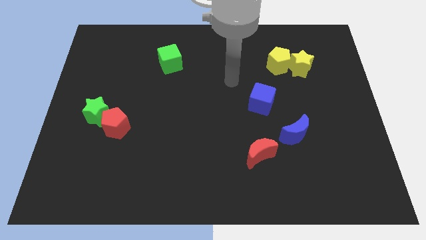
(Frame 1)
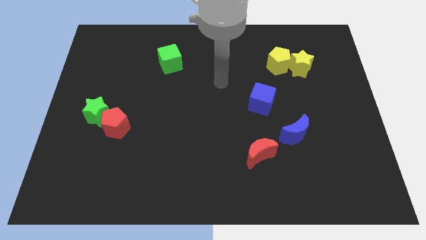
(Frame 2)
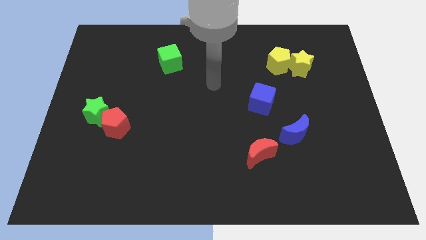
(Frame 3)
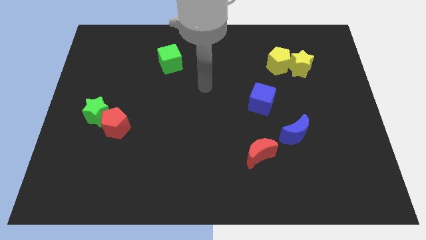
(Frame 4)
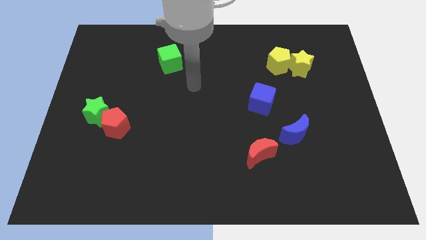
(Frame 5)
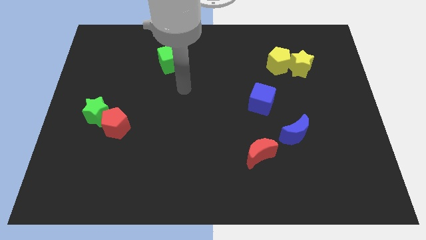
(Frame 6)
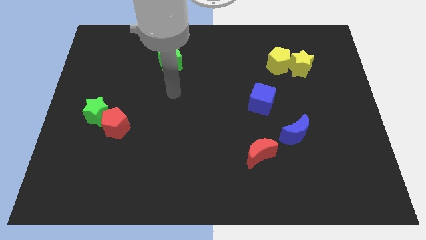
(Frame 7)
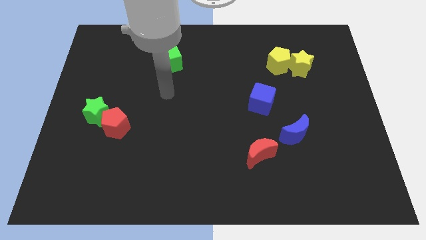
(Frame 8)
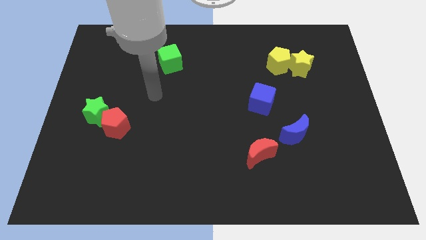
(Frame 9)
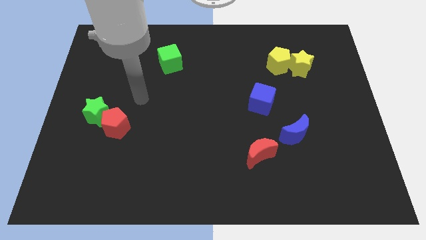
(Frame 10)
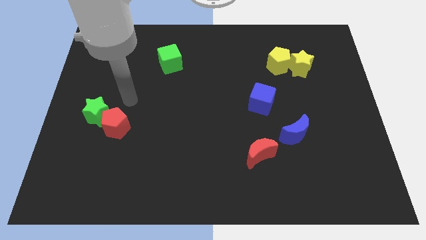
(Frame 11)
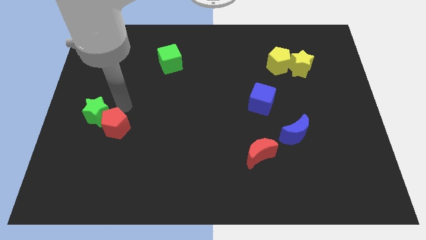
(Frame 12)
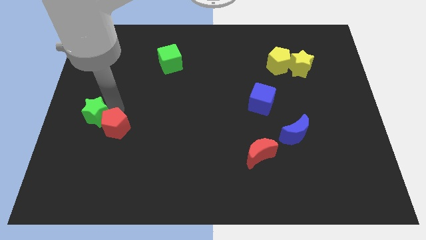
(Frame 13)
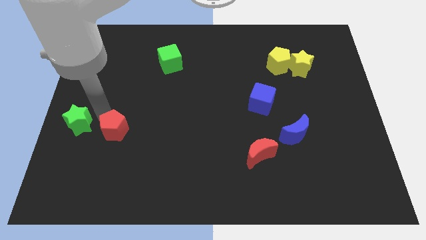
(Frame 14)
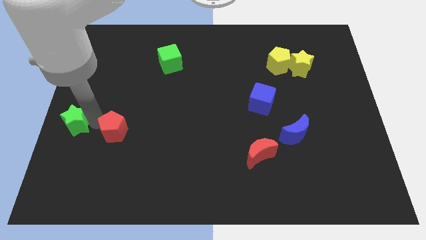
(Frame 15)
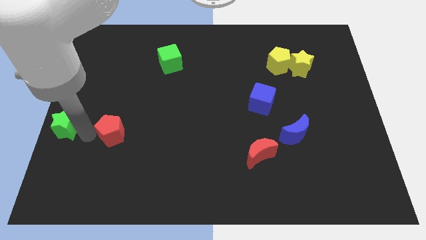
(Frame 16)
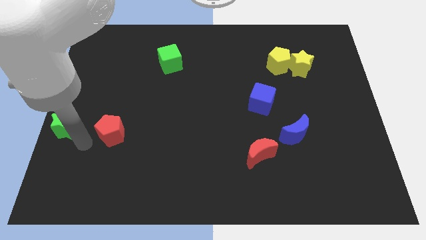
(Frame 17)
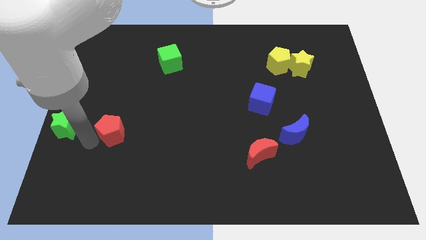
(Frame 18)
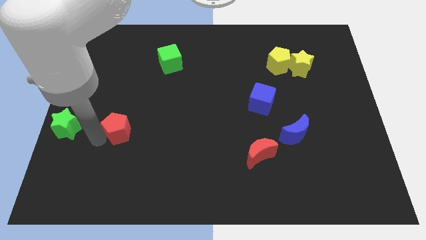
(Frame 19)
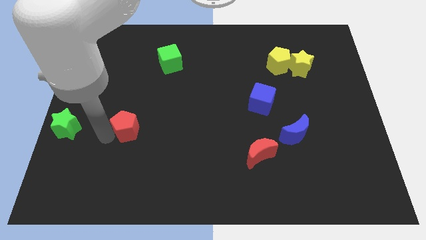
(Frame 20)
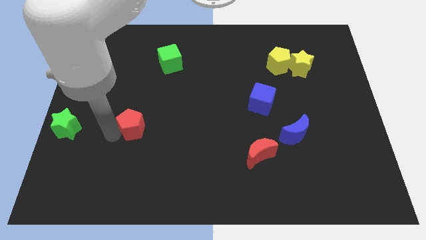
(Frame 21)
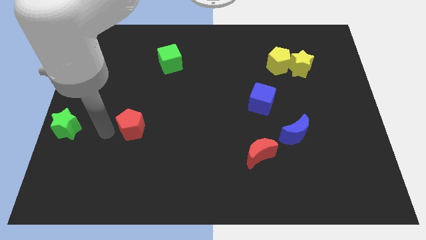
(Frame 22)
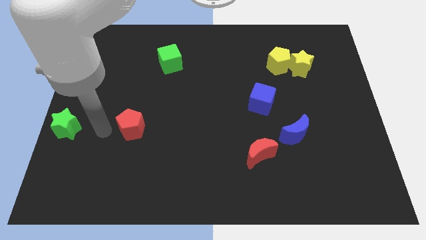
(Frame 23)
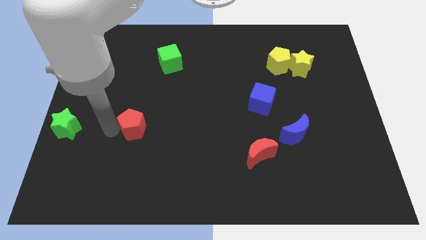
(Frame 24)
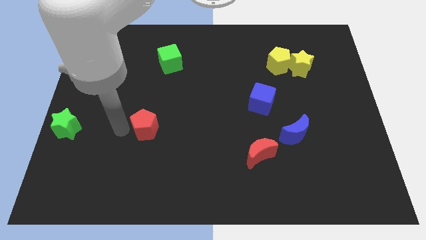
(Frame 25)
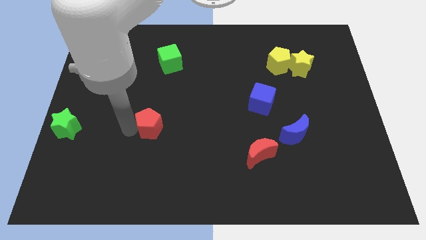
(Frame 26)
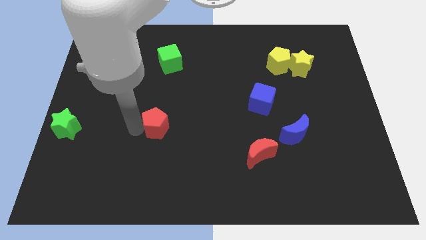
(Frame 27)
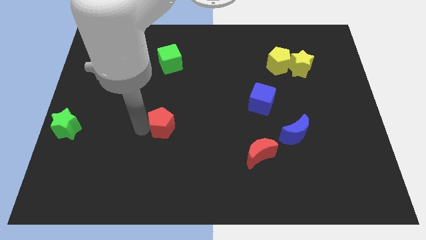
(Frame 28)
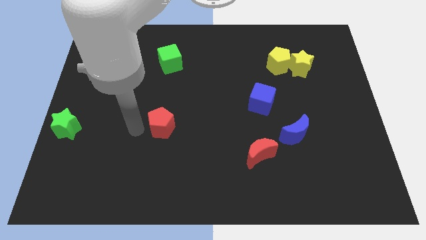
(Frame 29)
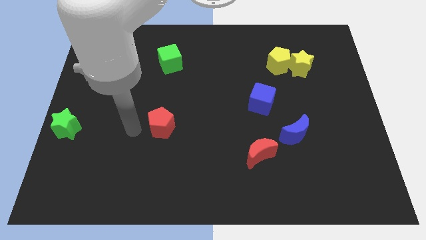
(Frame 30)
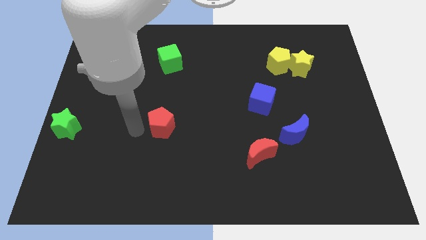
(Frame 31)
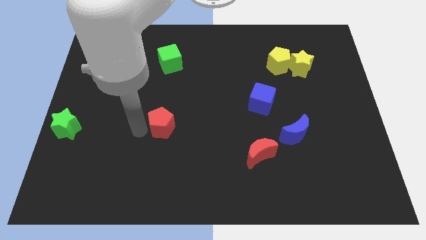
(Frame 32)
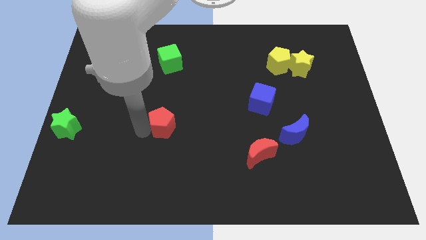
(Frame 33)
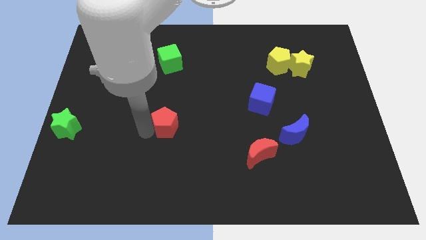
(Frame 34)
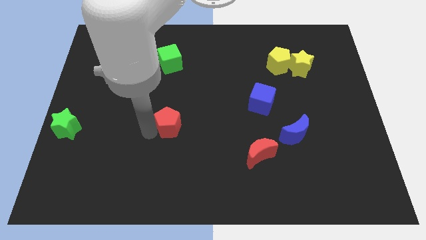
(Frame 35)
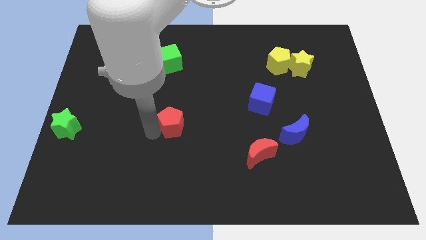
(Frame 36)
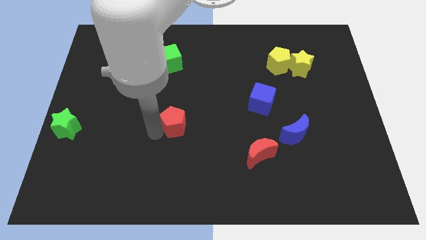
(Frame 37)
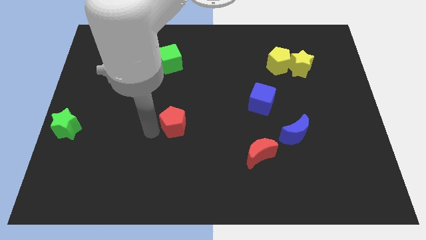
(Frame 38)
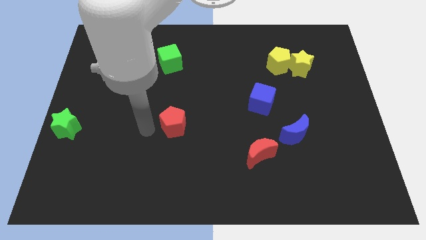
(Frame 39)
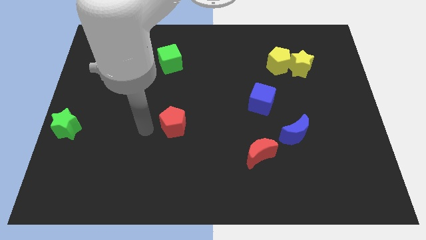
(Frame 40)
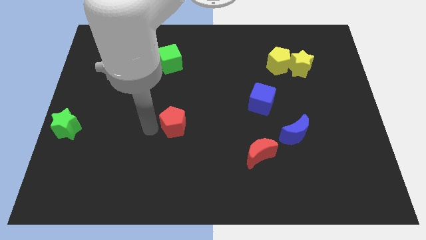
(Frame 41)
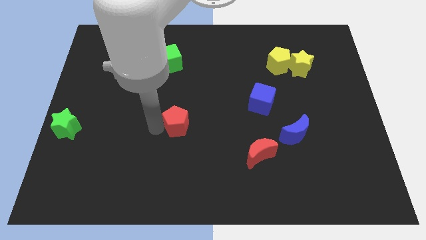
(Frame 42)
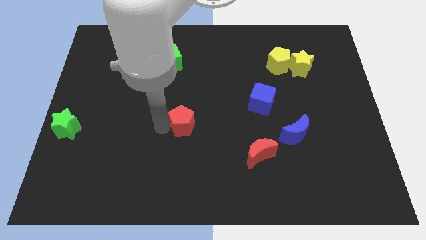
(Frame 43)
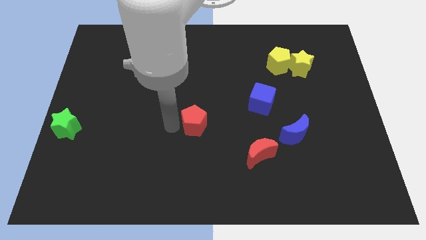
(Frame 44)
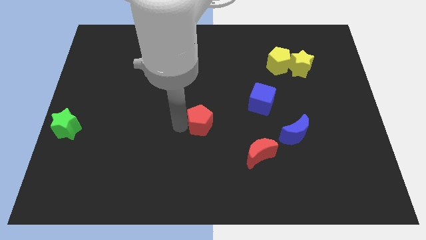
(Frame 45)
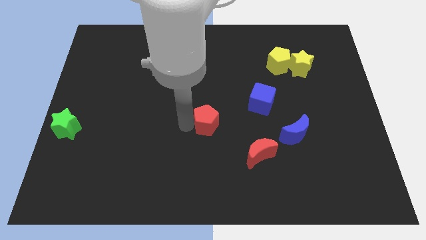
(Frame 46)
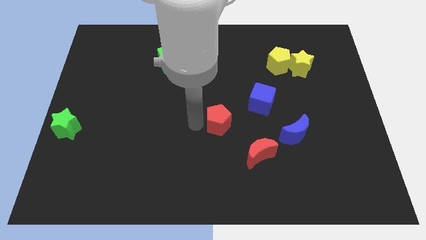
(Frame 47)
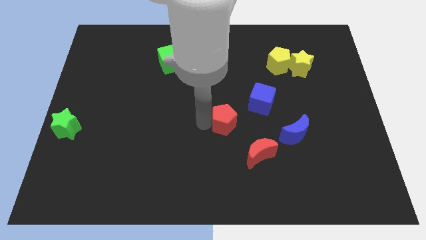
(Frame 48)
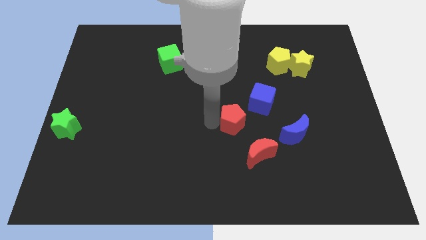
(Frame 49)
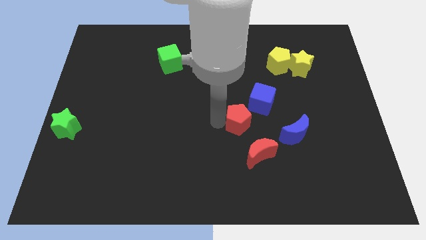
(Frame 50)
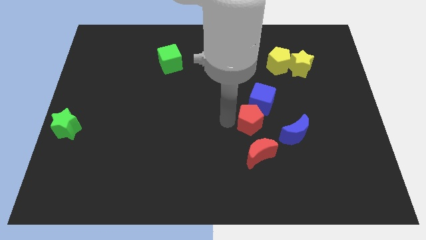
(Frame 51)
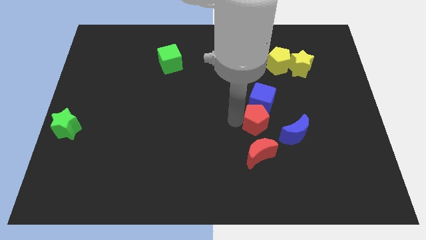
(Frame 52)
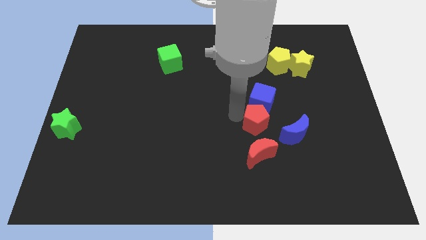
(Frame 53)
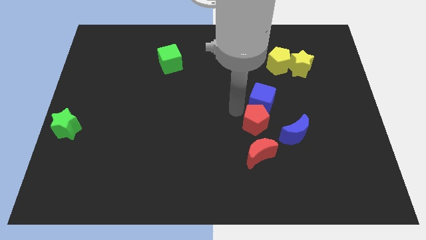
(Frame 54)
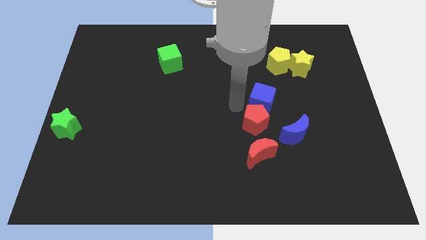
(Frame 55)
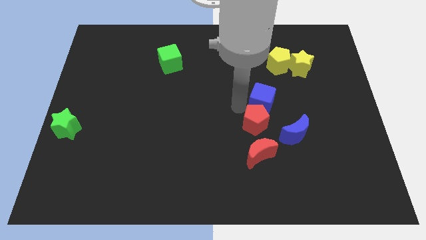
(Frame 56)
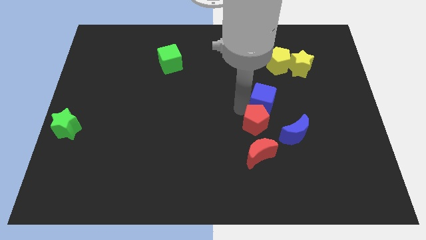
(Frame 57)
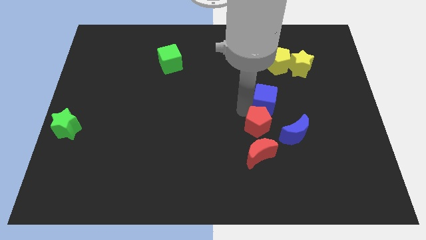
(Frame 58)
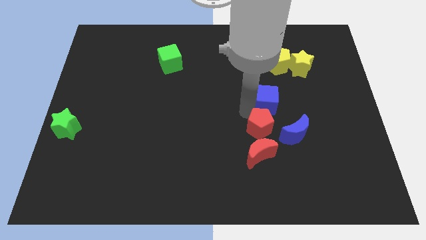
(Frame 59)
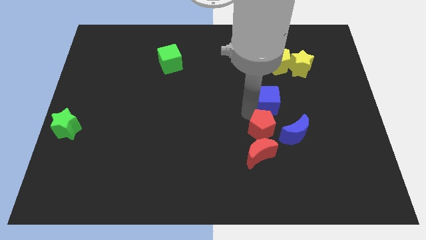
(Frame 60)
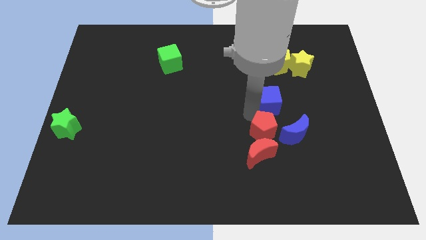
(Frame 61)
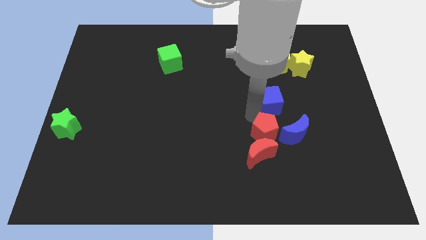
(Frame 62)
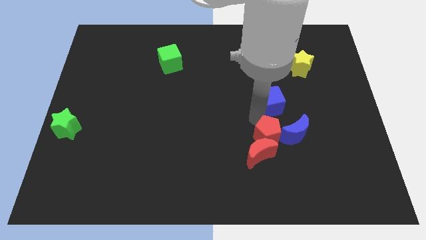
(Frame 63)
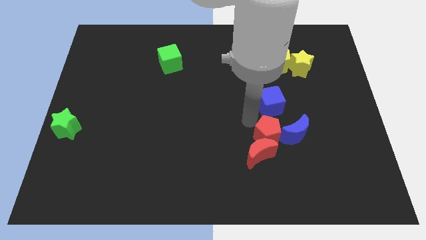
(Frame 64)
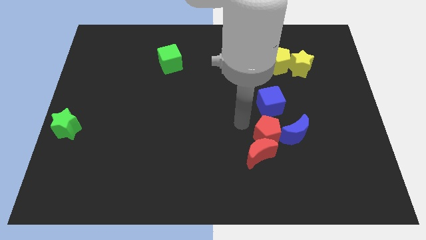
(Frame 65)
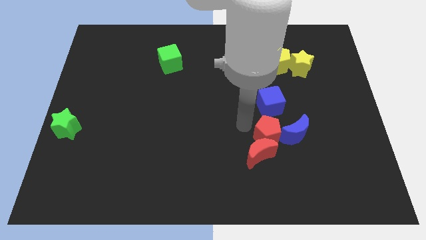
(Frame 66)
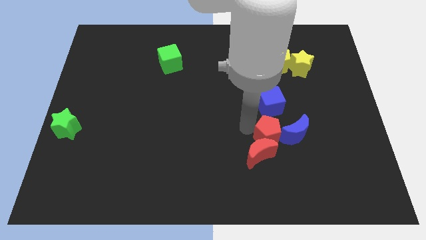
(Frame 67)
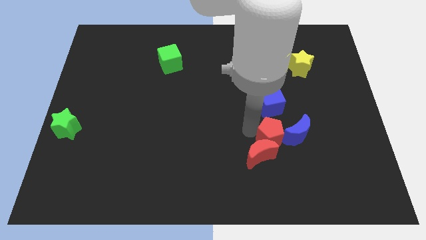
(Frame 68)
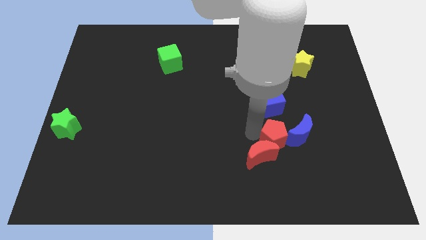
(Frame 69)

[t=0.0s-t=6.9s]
push the red pentagon right of the red moon
